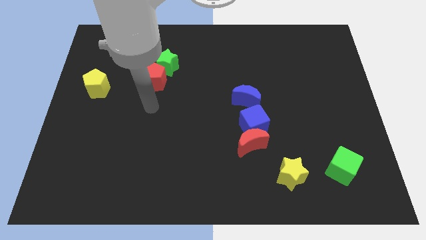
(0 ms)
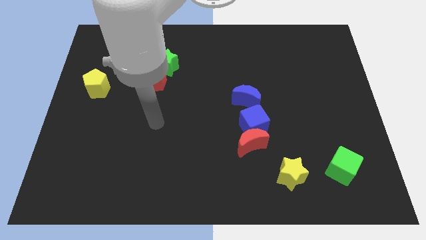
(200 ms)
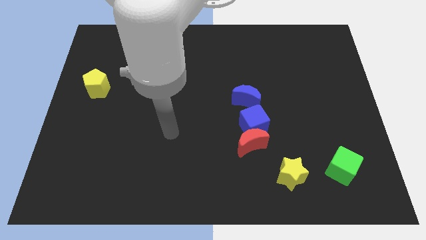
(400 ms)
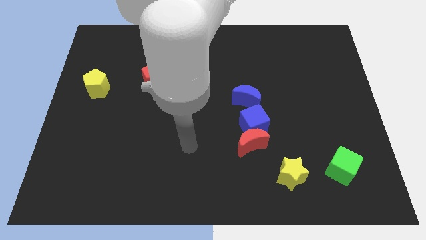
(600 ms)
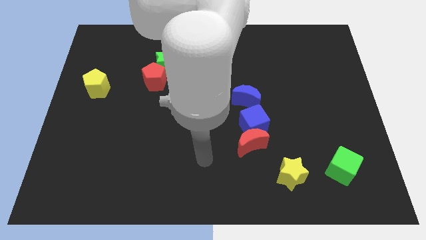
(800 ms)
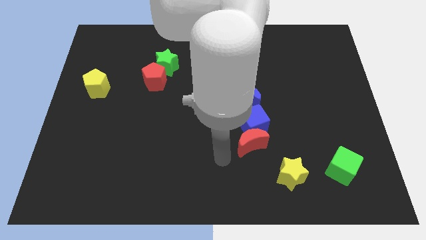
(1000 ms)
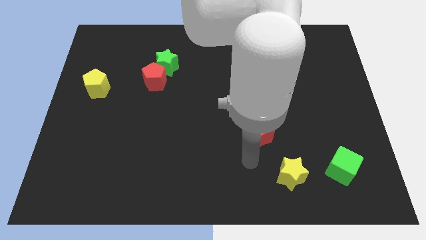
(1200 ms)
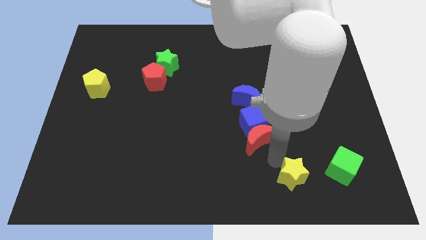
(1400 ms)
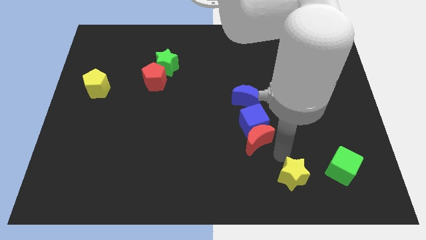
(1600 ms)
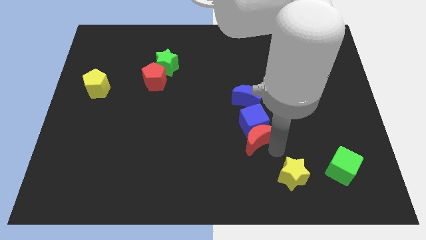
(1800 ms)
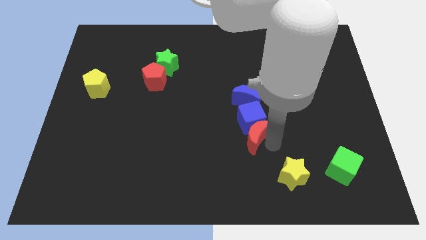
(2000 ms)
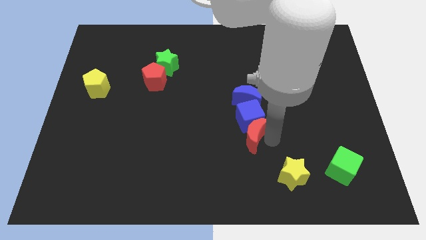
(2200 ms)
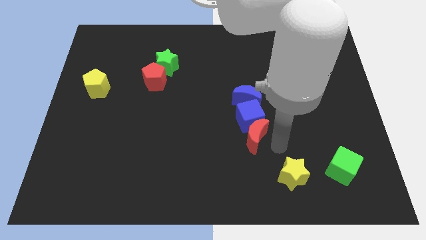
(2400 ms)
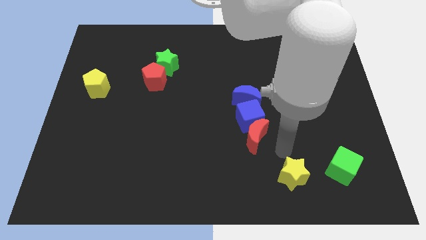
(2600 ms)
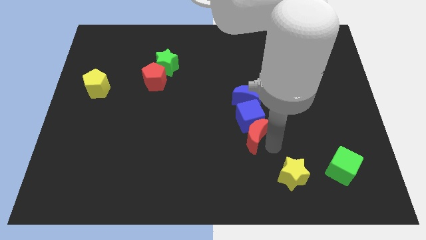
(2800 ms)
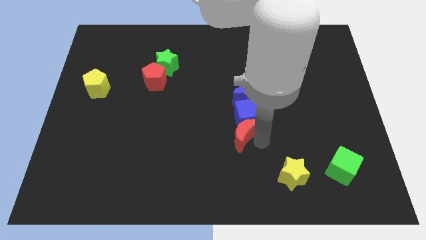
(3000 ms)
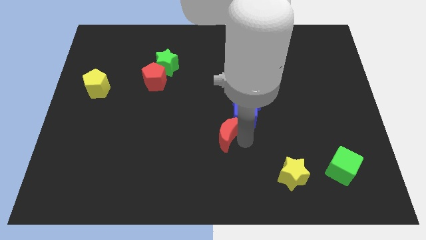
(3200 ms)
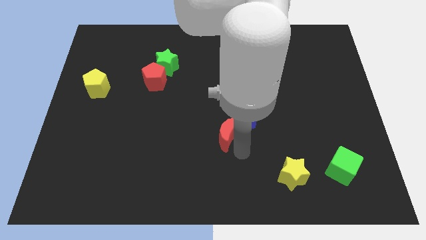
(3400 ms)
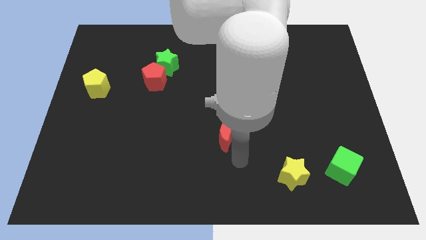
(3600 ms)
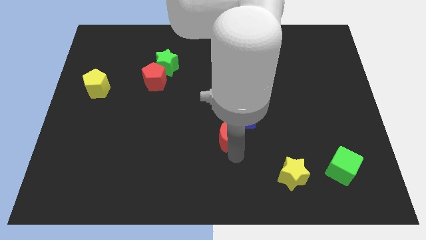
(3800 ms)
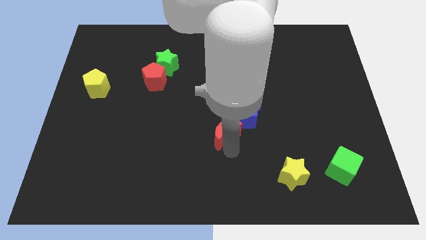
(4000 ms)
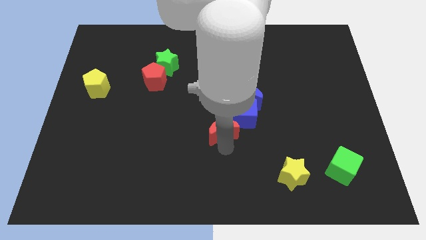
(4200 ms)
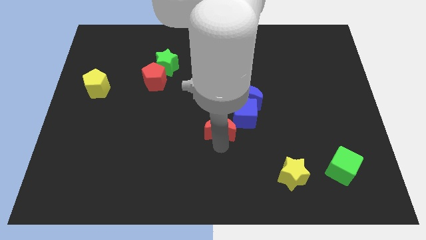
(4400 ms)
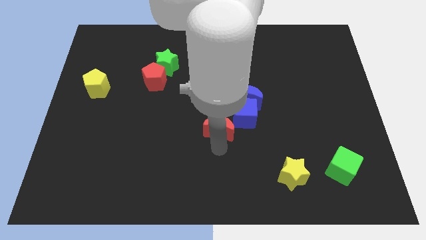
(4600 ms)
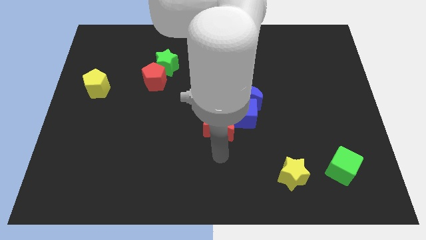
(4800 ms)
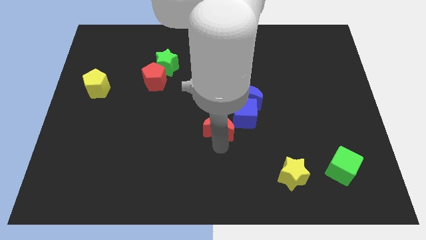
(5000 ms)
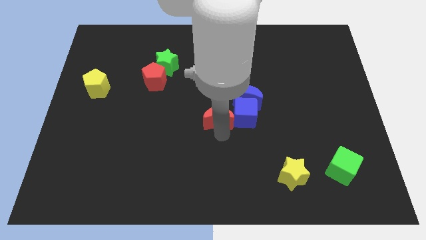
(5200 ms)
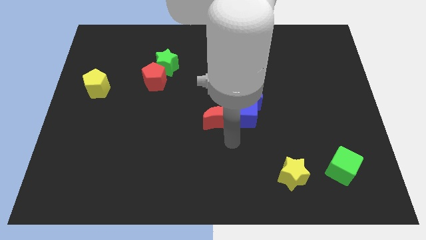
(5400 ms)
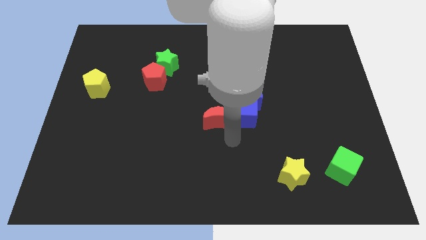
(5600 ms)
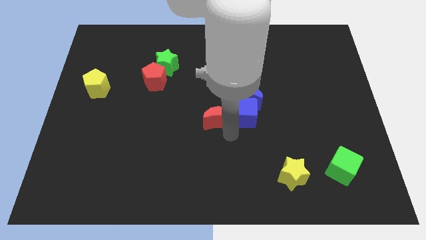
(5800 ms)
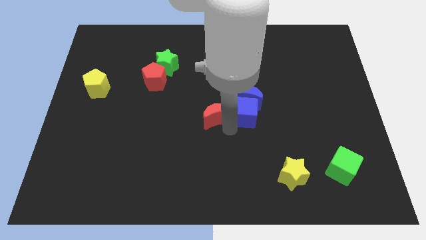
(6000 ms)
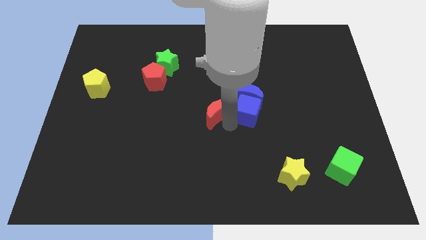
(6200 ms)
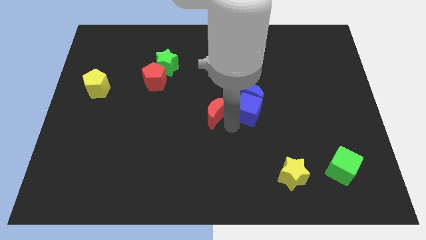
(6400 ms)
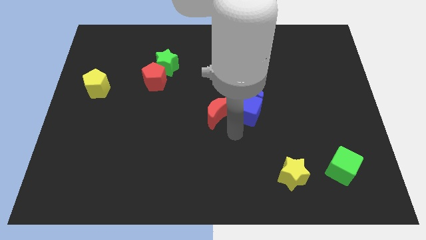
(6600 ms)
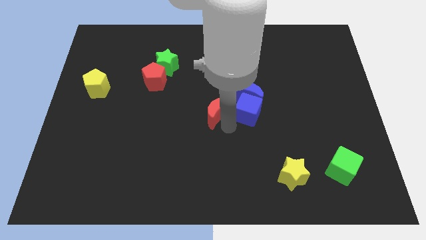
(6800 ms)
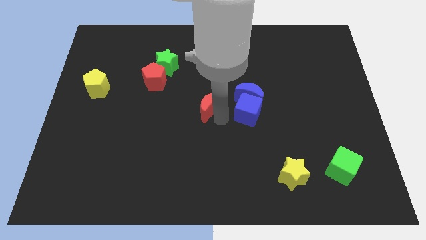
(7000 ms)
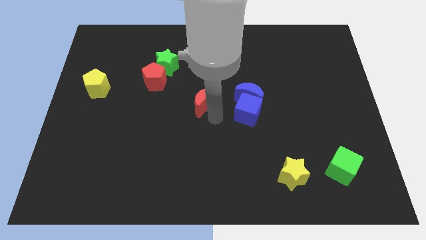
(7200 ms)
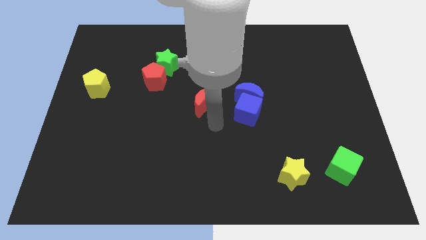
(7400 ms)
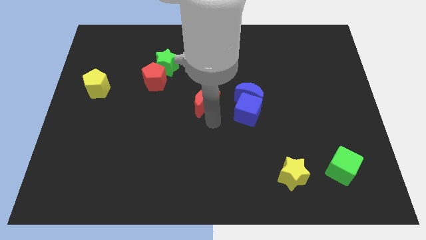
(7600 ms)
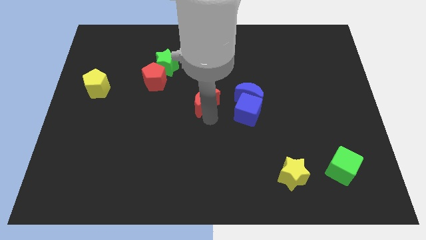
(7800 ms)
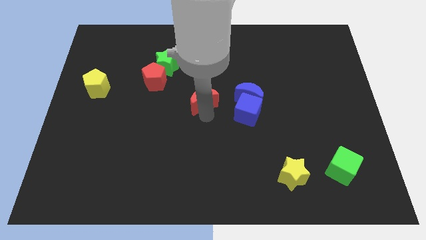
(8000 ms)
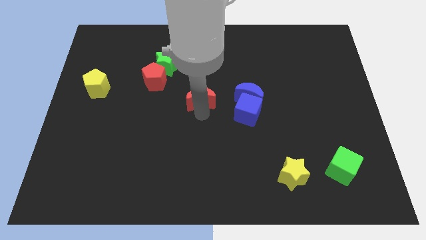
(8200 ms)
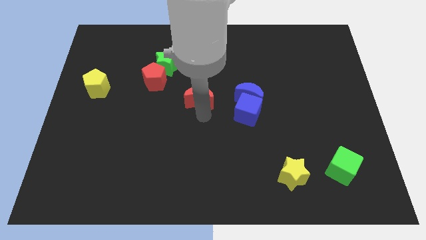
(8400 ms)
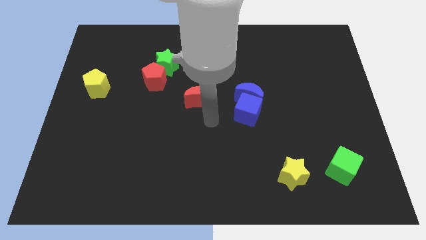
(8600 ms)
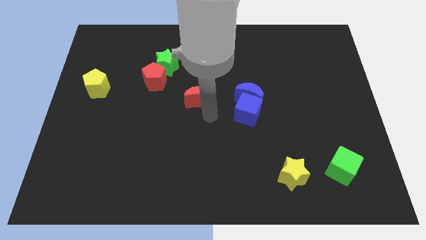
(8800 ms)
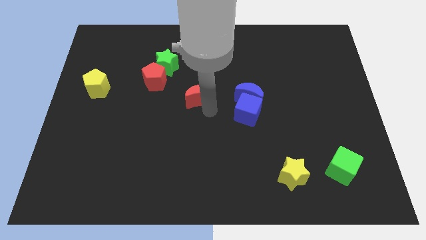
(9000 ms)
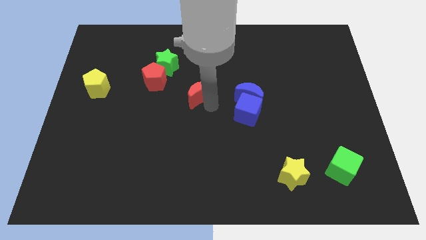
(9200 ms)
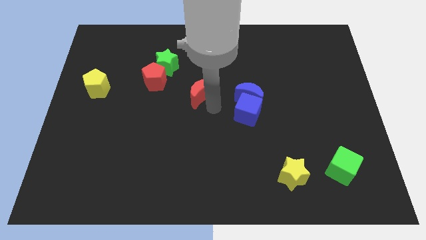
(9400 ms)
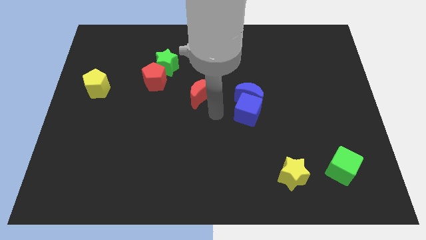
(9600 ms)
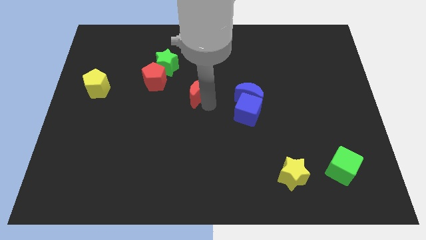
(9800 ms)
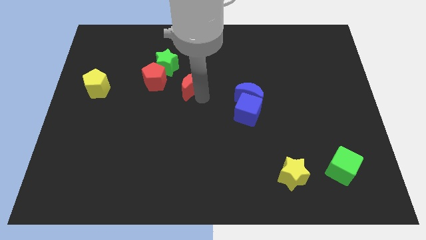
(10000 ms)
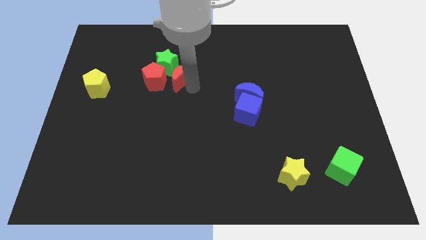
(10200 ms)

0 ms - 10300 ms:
put the red moon towards the green star

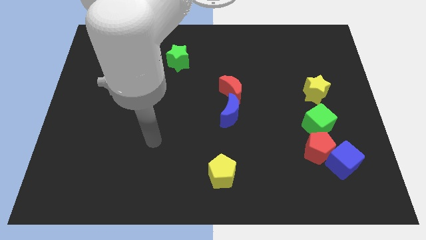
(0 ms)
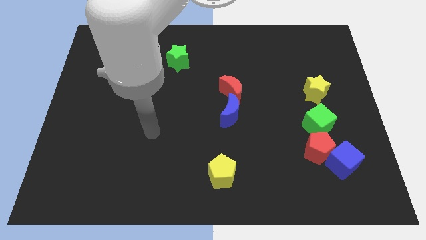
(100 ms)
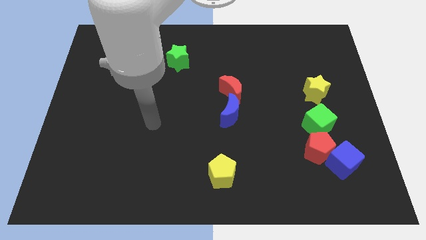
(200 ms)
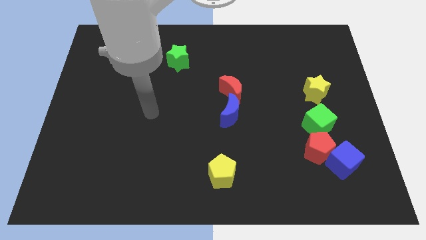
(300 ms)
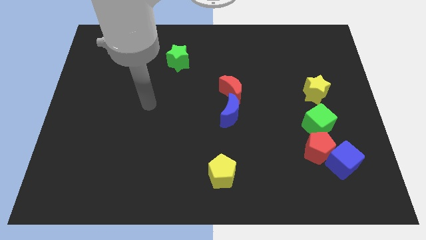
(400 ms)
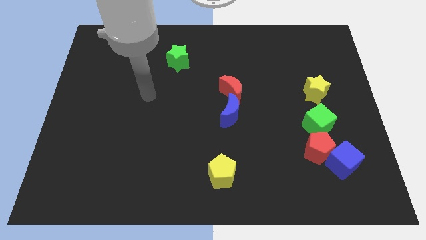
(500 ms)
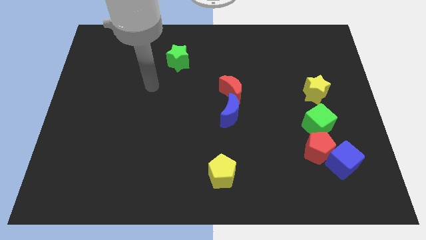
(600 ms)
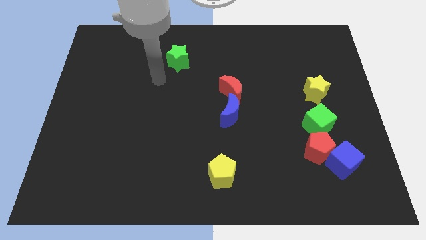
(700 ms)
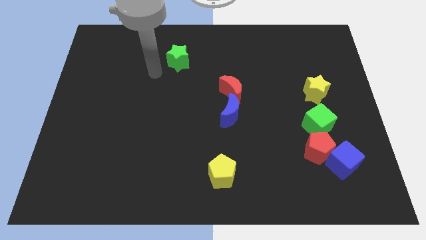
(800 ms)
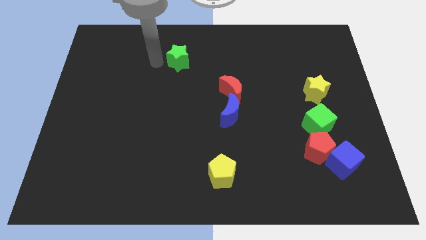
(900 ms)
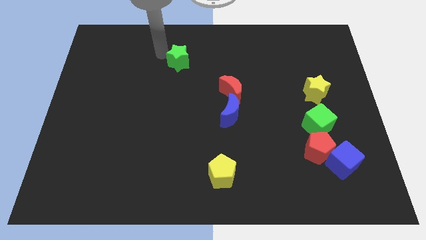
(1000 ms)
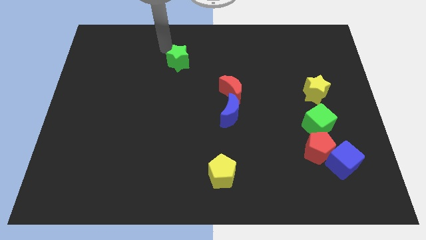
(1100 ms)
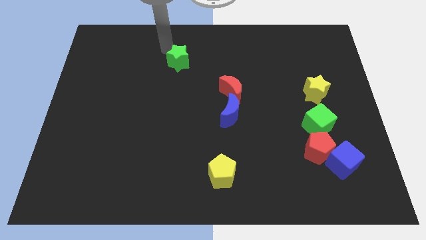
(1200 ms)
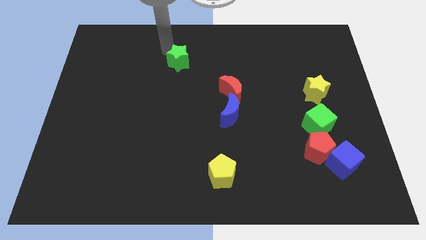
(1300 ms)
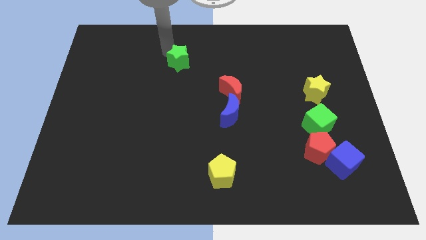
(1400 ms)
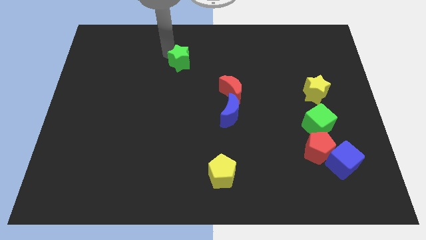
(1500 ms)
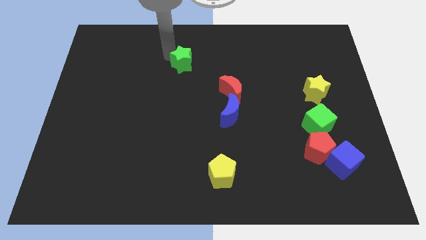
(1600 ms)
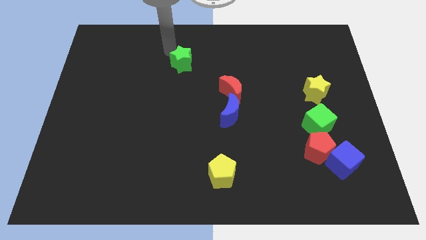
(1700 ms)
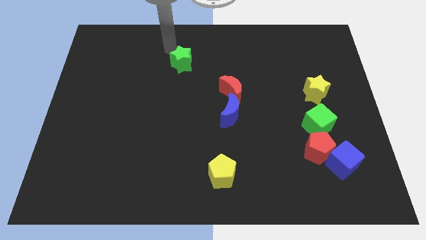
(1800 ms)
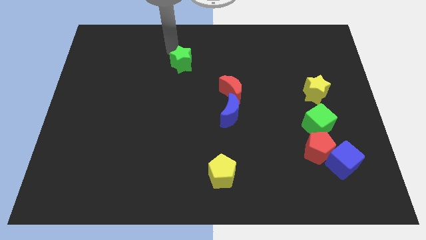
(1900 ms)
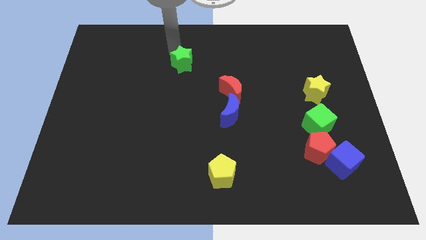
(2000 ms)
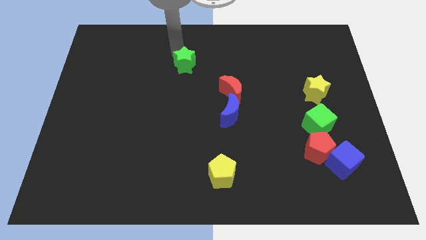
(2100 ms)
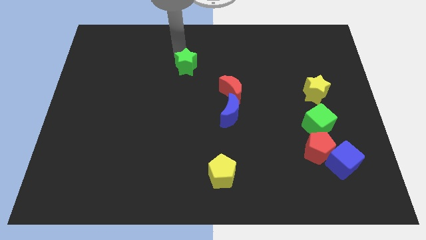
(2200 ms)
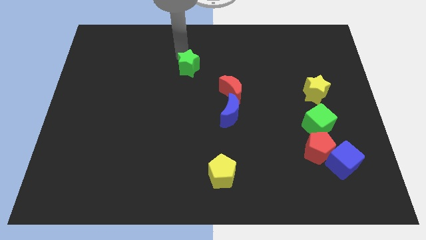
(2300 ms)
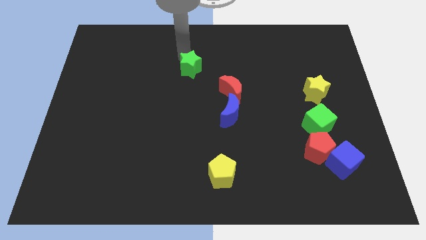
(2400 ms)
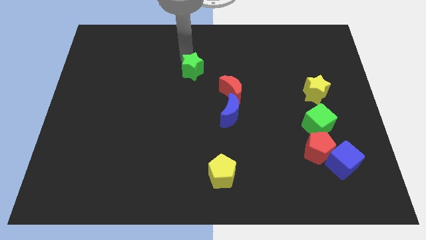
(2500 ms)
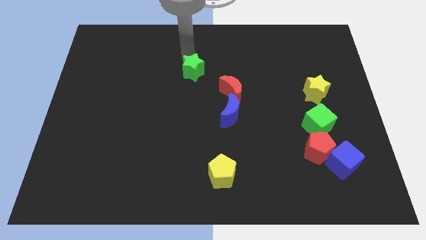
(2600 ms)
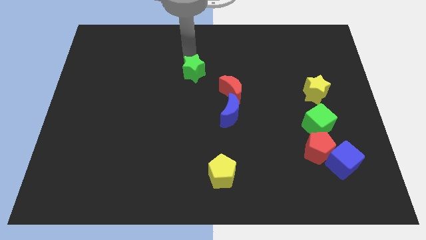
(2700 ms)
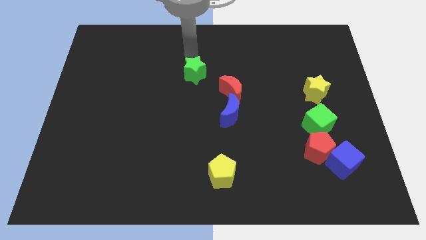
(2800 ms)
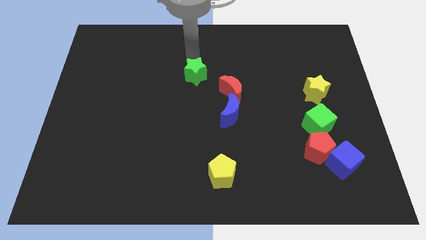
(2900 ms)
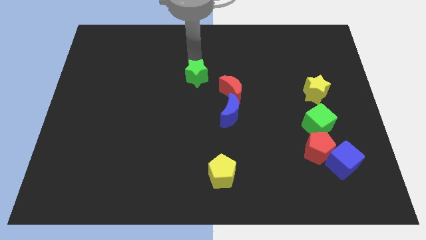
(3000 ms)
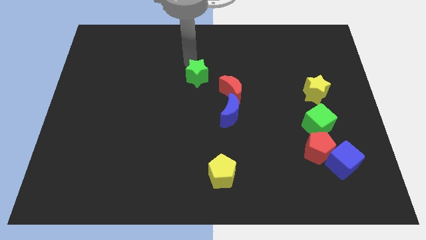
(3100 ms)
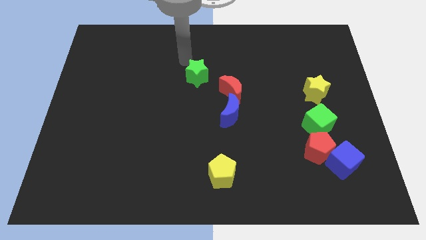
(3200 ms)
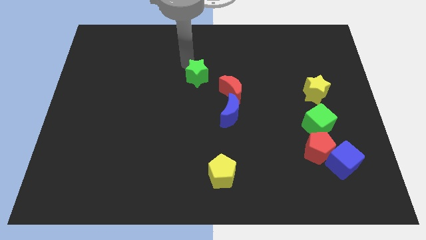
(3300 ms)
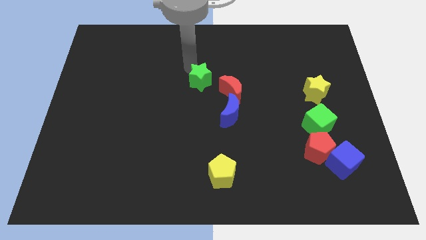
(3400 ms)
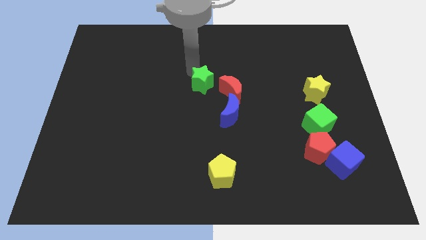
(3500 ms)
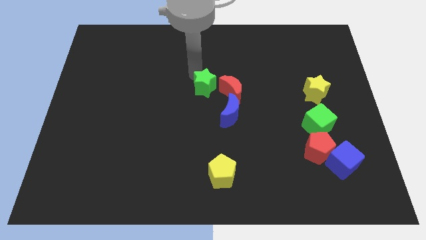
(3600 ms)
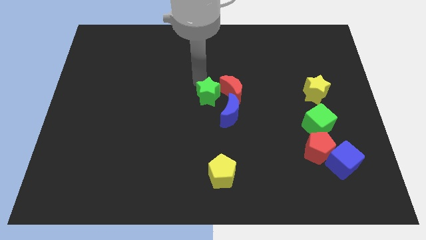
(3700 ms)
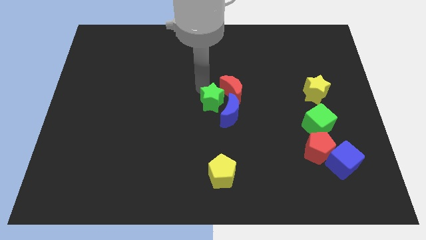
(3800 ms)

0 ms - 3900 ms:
put the green star next to the blue moon
